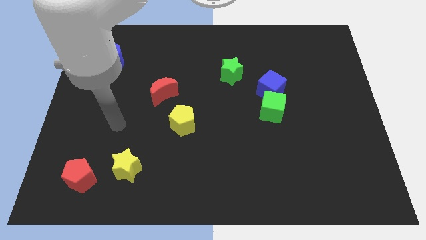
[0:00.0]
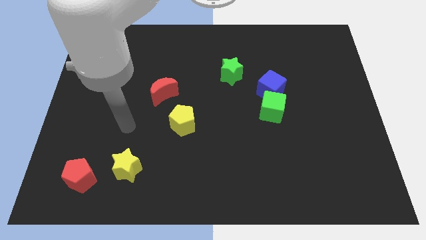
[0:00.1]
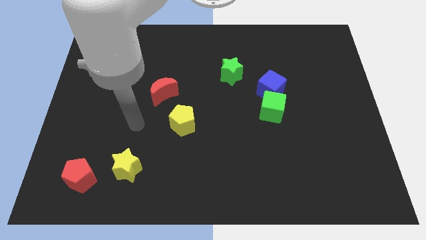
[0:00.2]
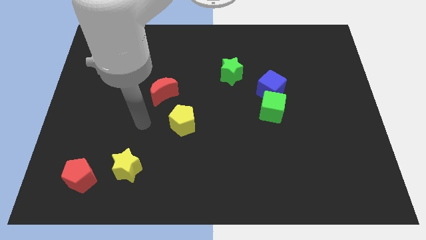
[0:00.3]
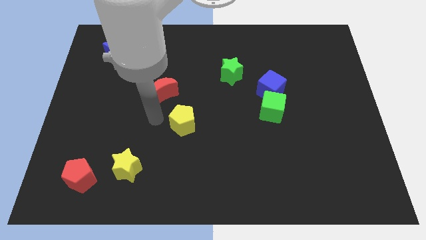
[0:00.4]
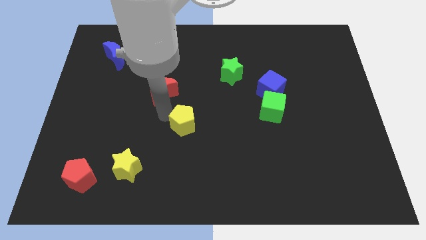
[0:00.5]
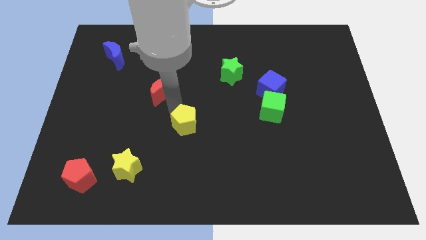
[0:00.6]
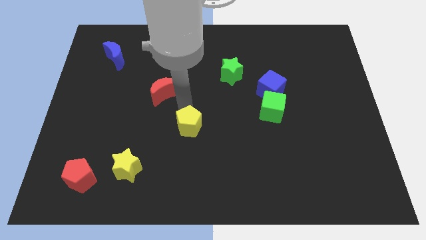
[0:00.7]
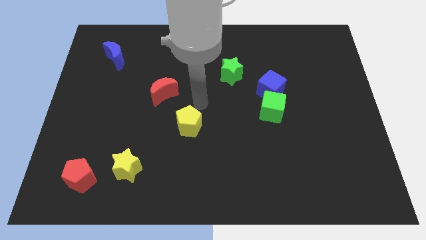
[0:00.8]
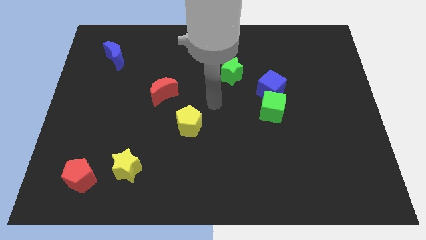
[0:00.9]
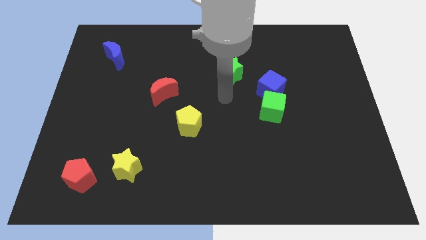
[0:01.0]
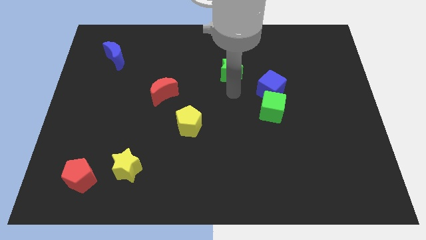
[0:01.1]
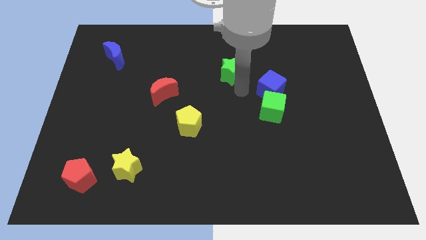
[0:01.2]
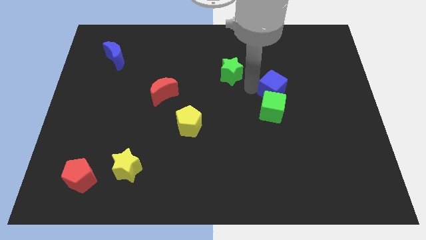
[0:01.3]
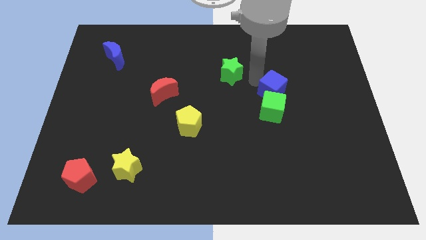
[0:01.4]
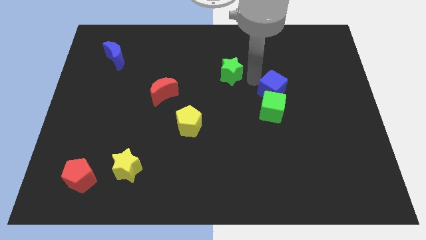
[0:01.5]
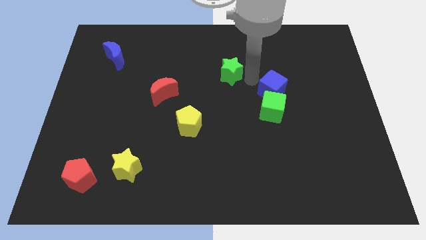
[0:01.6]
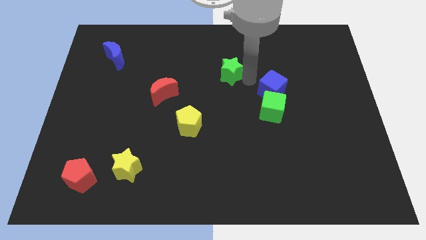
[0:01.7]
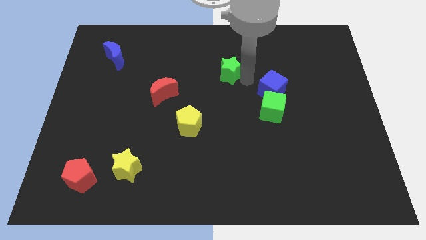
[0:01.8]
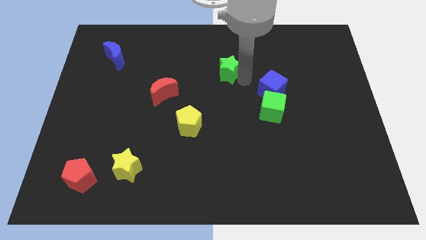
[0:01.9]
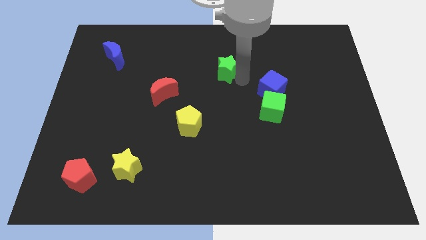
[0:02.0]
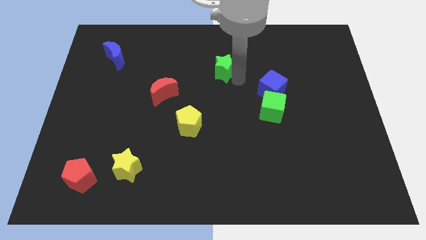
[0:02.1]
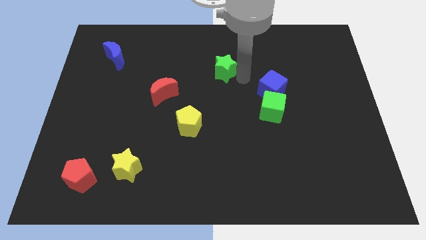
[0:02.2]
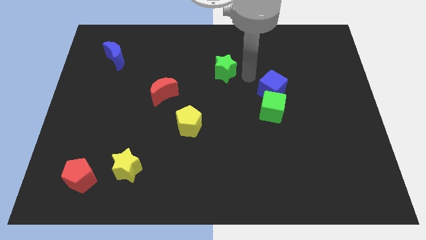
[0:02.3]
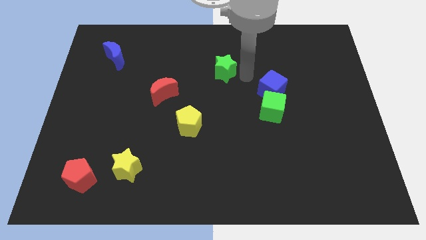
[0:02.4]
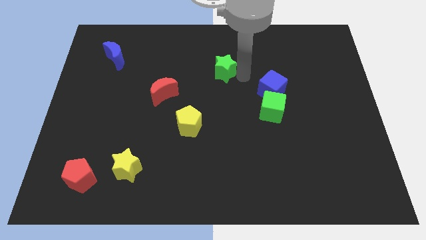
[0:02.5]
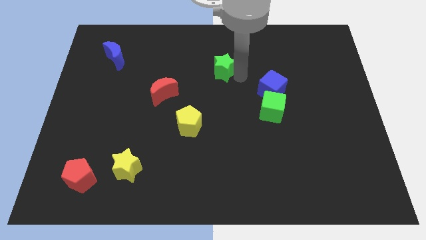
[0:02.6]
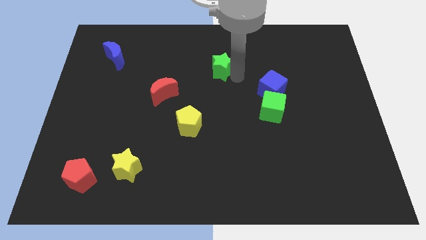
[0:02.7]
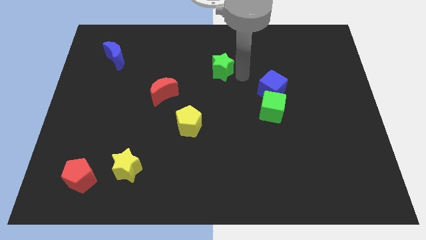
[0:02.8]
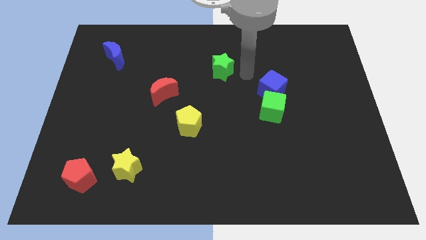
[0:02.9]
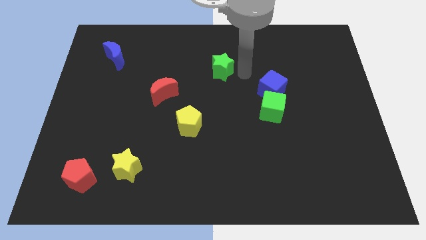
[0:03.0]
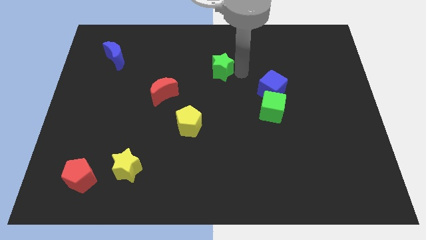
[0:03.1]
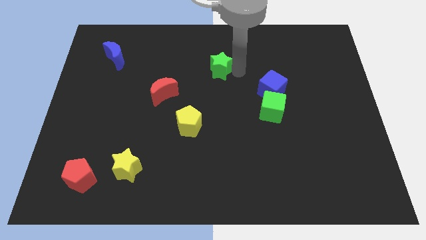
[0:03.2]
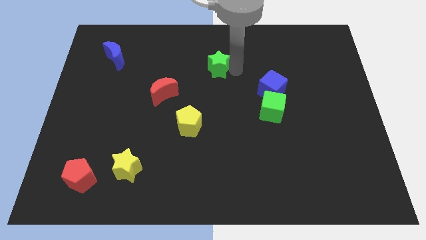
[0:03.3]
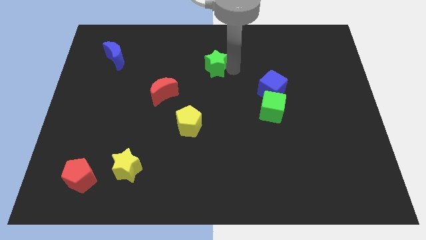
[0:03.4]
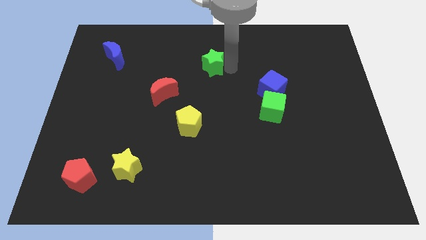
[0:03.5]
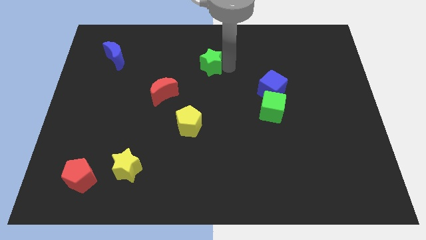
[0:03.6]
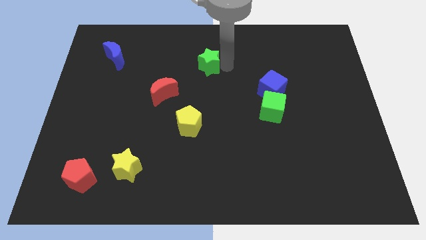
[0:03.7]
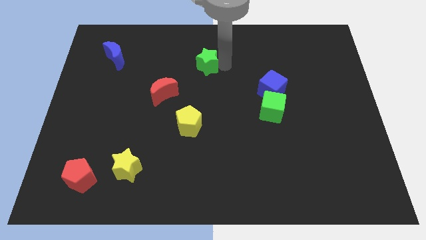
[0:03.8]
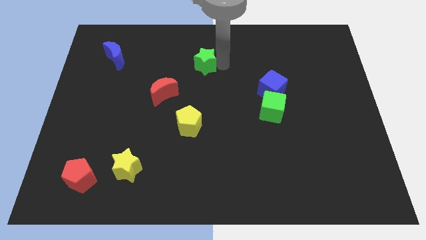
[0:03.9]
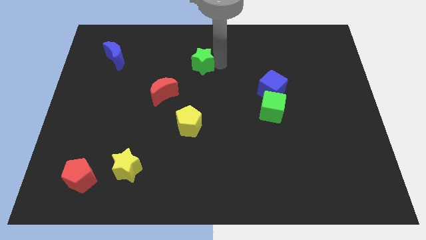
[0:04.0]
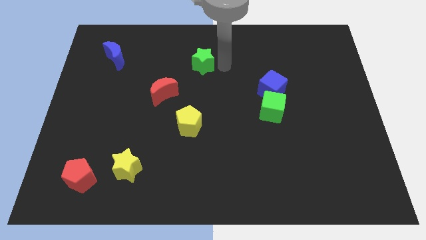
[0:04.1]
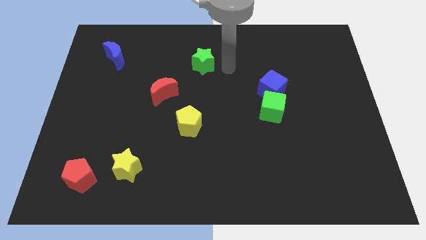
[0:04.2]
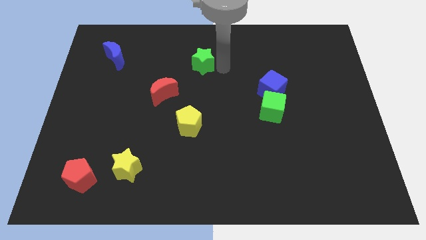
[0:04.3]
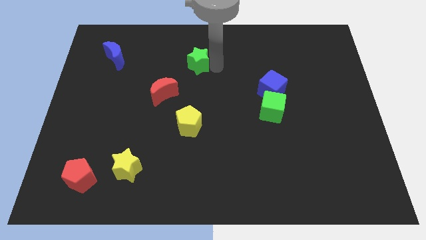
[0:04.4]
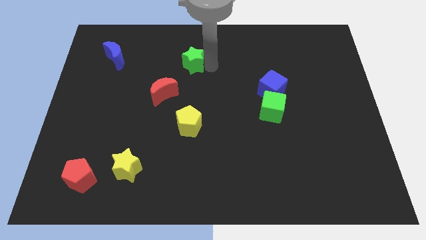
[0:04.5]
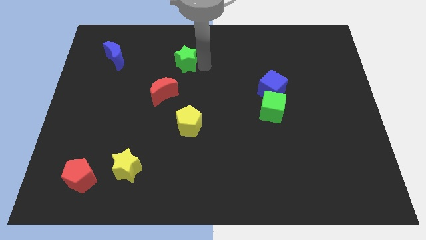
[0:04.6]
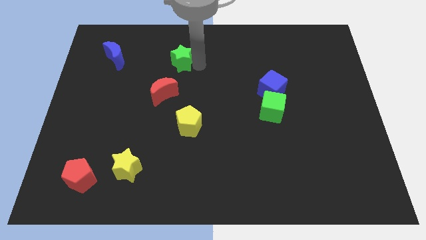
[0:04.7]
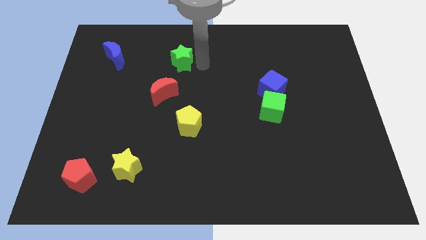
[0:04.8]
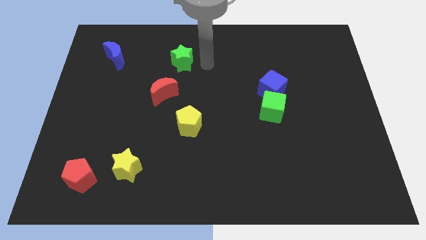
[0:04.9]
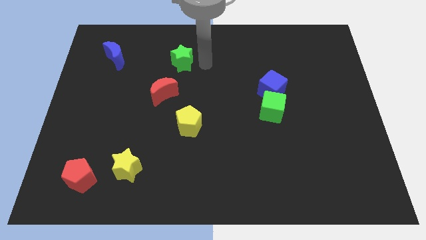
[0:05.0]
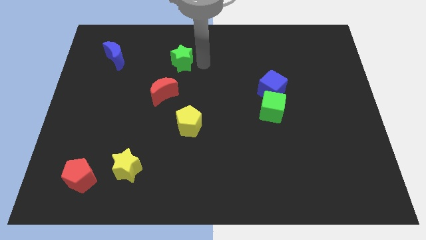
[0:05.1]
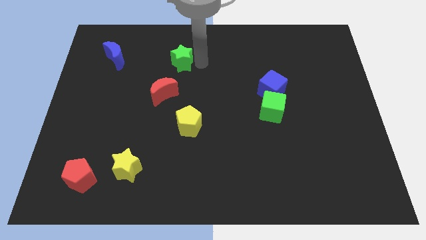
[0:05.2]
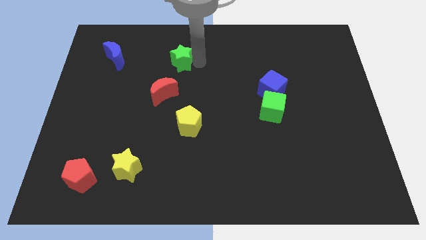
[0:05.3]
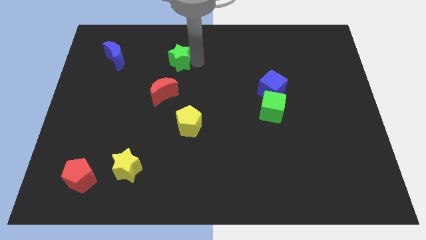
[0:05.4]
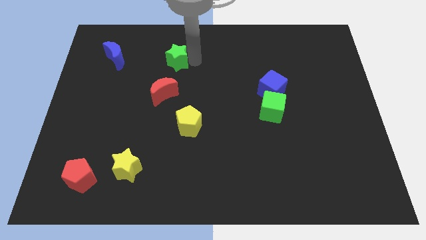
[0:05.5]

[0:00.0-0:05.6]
push the green star to the right side of the blue moon

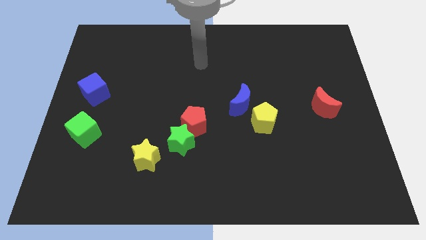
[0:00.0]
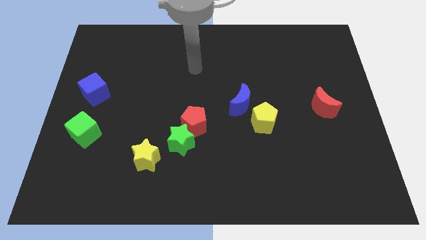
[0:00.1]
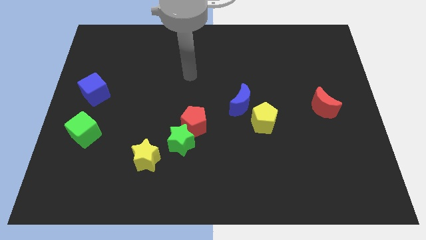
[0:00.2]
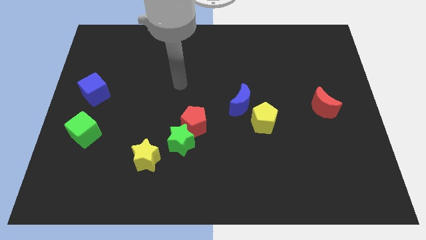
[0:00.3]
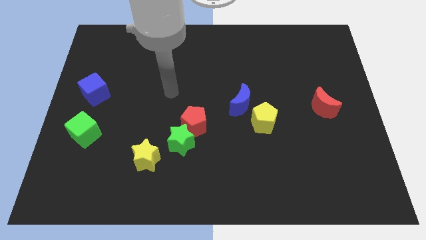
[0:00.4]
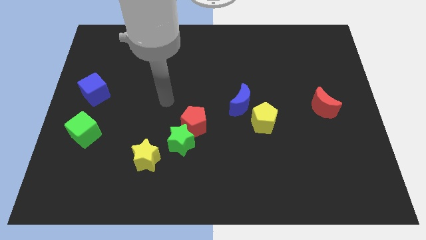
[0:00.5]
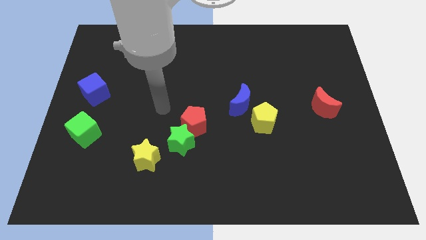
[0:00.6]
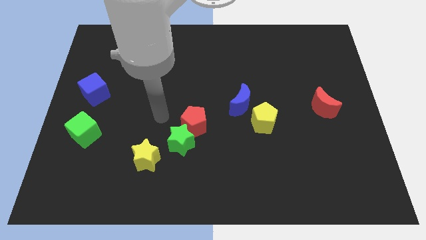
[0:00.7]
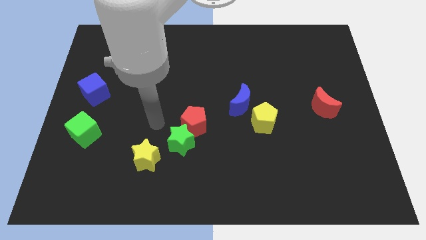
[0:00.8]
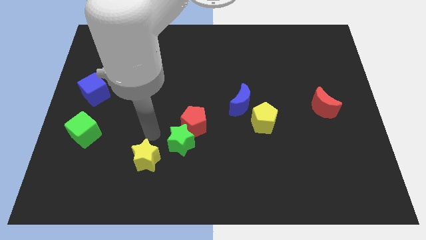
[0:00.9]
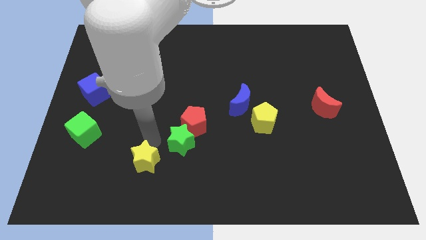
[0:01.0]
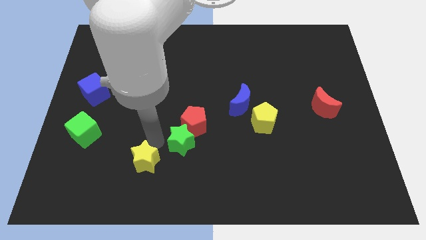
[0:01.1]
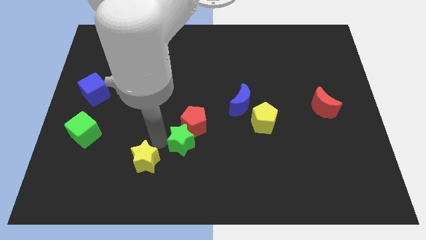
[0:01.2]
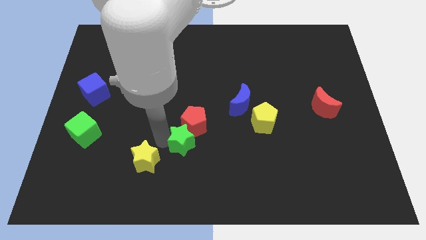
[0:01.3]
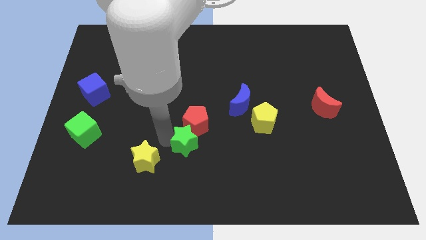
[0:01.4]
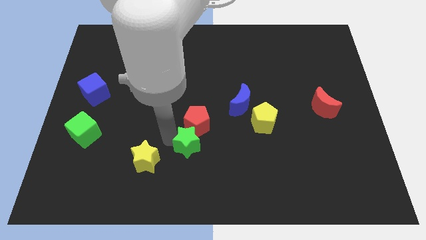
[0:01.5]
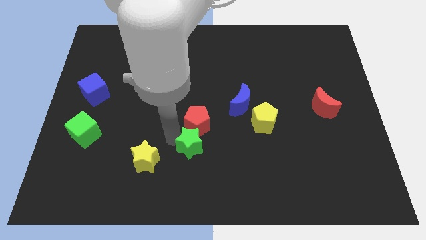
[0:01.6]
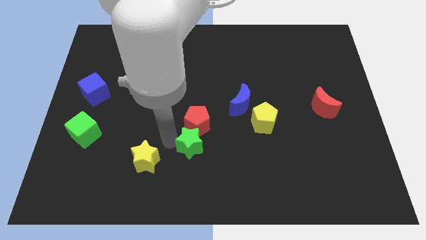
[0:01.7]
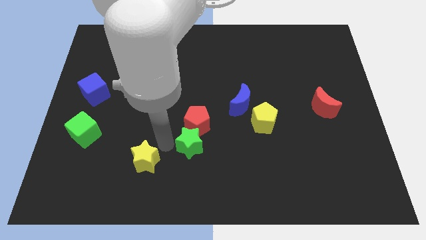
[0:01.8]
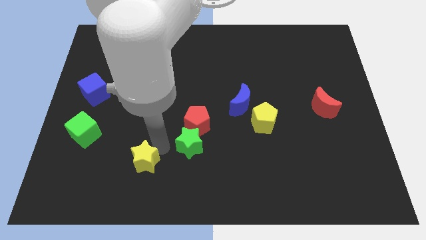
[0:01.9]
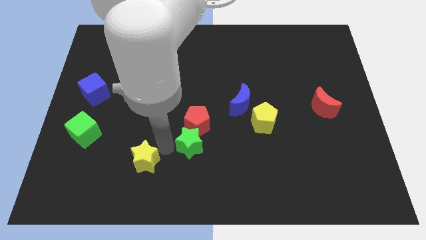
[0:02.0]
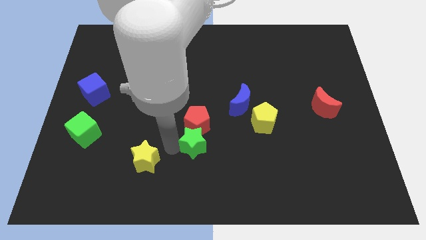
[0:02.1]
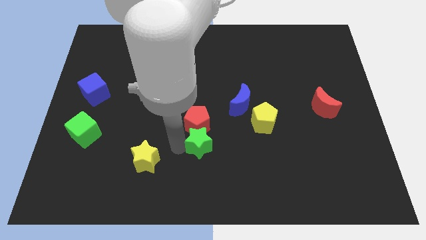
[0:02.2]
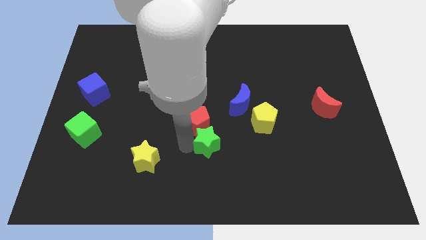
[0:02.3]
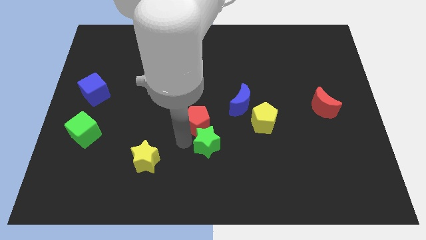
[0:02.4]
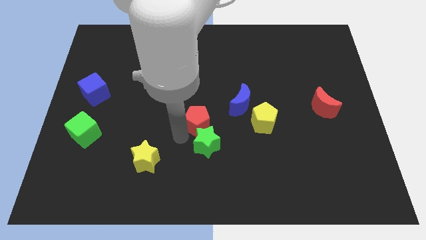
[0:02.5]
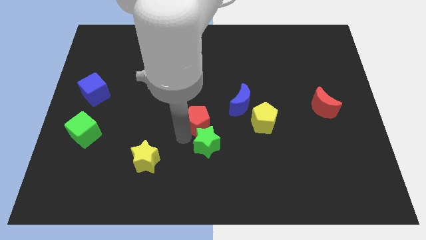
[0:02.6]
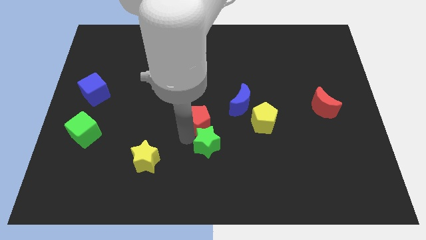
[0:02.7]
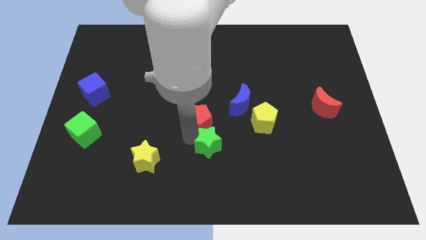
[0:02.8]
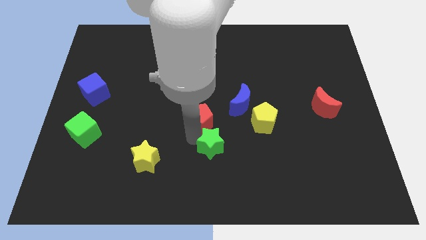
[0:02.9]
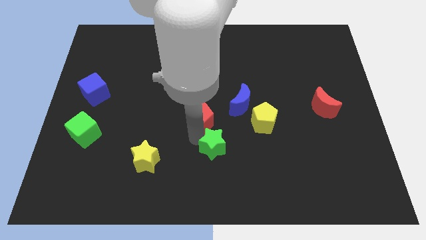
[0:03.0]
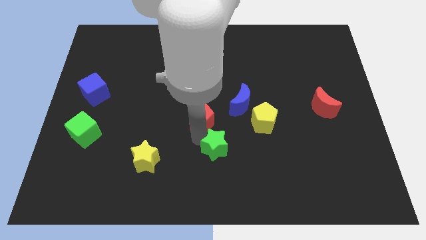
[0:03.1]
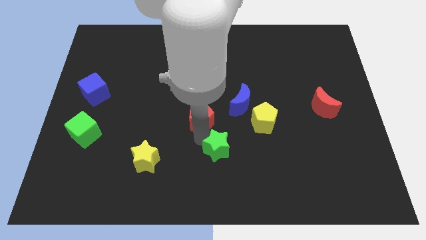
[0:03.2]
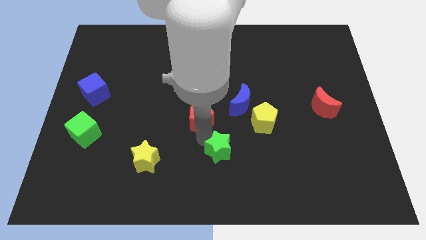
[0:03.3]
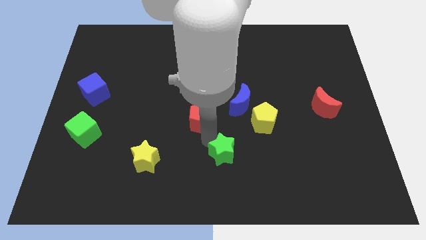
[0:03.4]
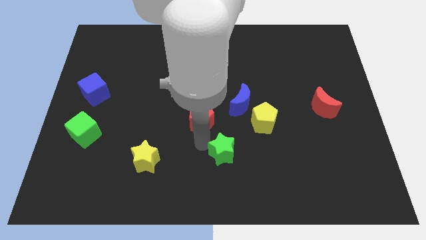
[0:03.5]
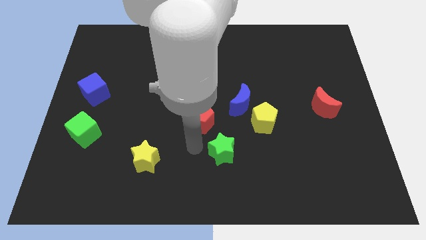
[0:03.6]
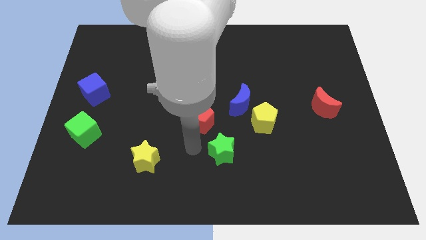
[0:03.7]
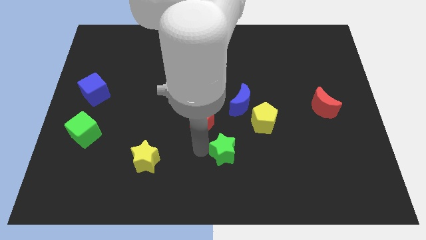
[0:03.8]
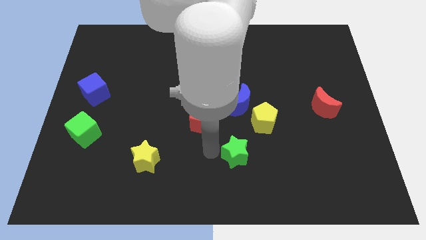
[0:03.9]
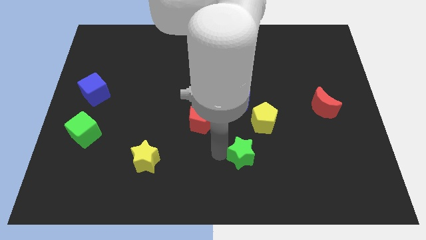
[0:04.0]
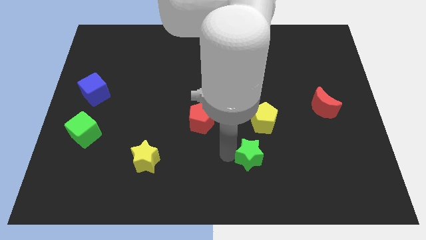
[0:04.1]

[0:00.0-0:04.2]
put the green star to the bottom of the yellow pentagon
